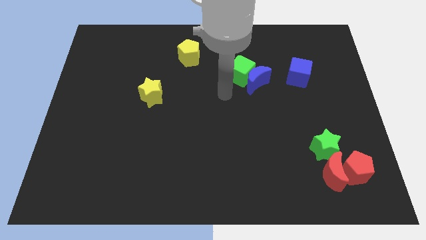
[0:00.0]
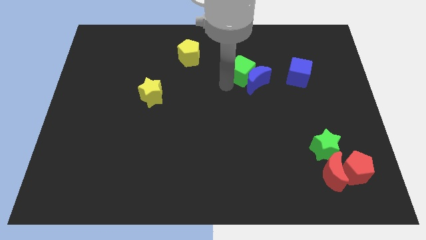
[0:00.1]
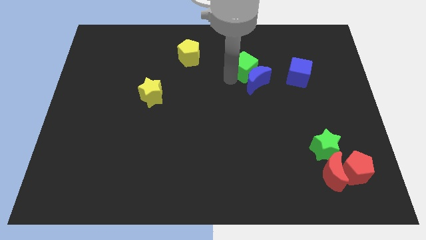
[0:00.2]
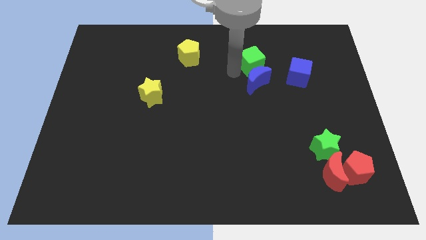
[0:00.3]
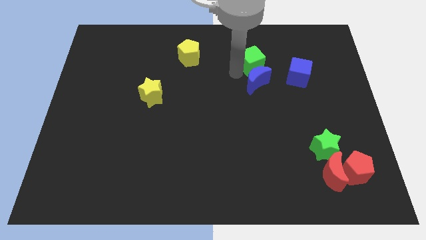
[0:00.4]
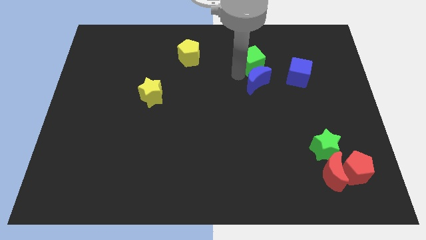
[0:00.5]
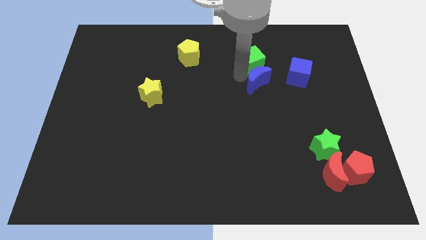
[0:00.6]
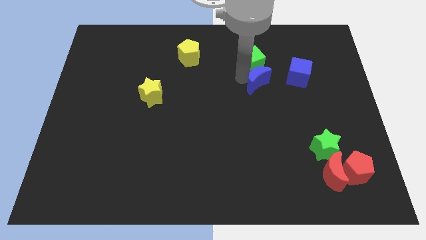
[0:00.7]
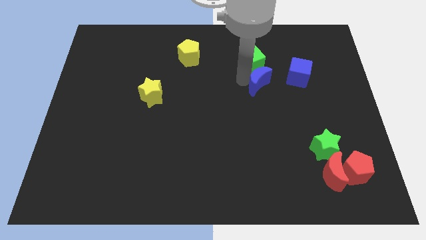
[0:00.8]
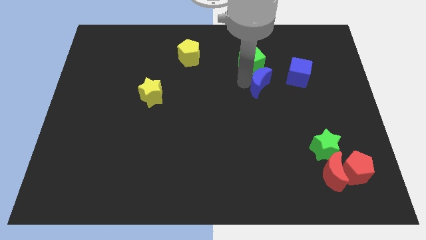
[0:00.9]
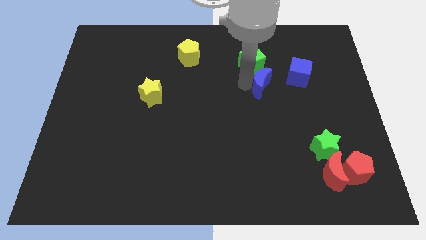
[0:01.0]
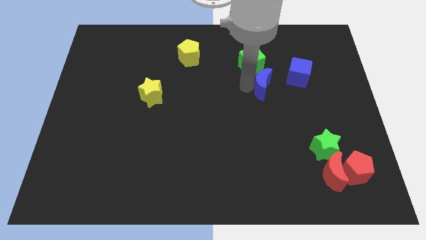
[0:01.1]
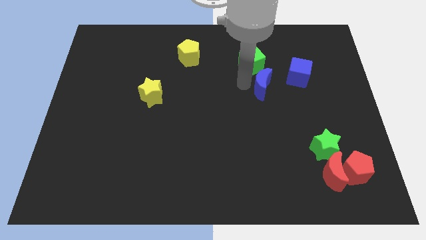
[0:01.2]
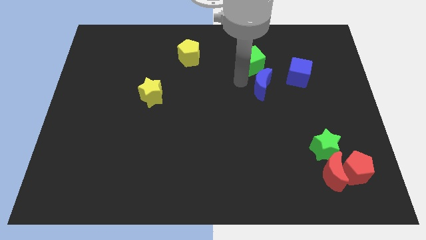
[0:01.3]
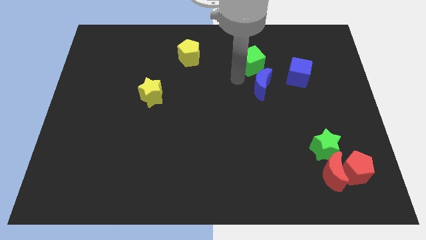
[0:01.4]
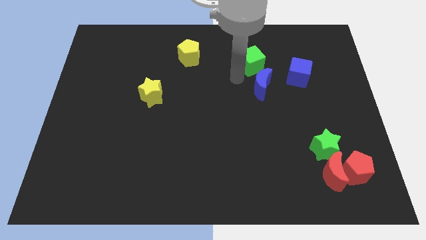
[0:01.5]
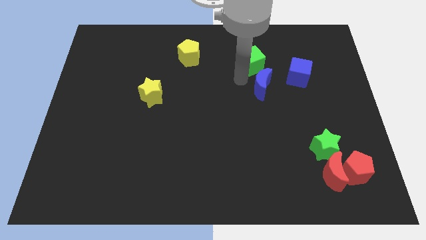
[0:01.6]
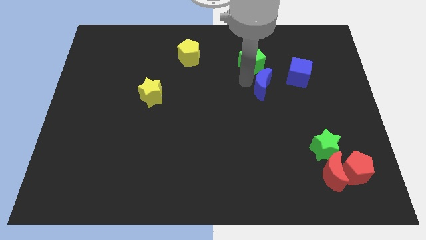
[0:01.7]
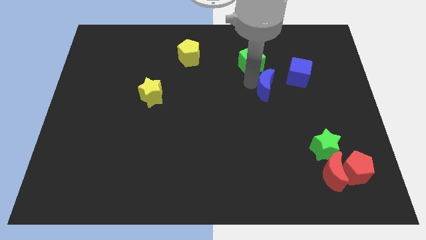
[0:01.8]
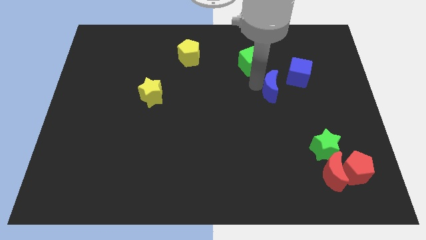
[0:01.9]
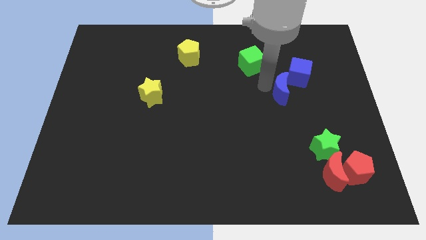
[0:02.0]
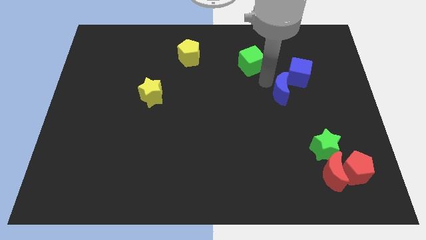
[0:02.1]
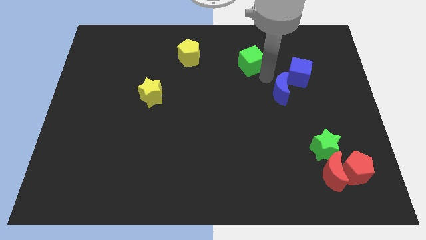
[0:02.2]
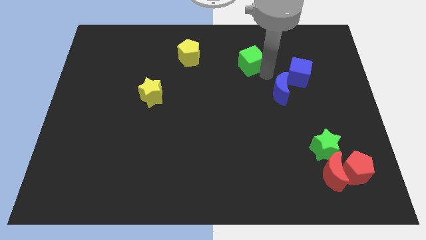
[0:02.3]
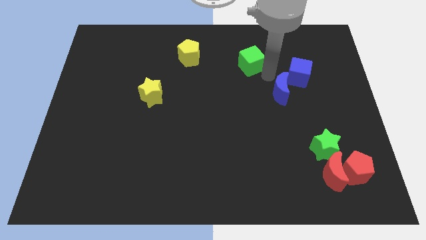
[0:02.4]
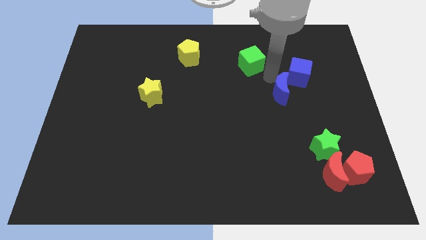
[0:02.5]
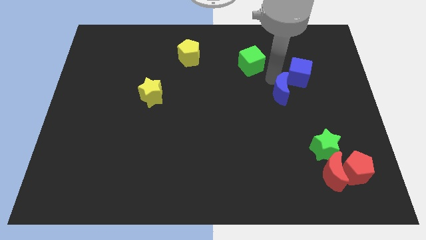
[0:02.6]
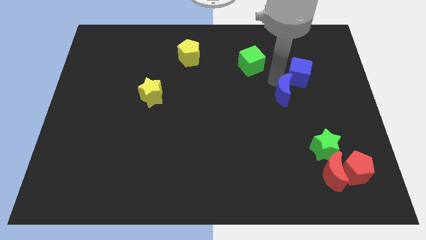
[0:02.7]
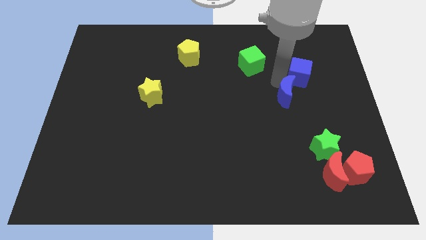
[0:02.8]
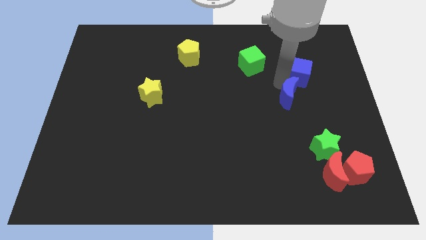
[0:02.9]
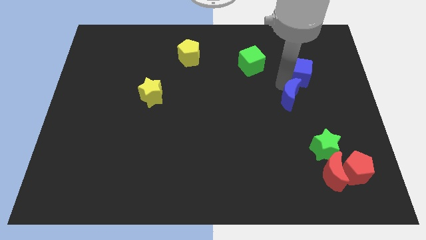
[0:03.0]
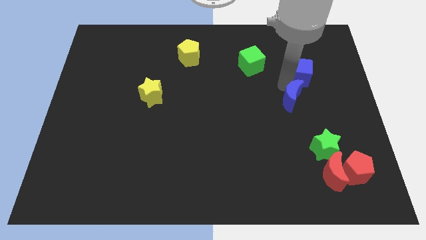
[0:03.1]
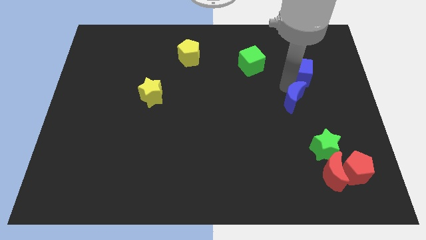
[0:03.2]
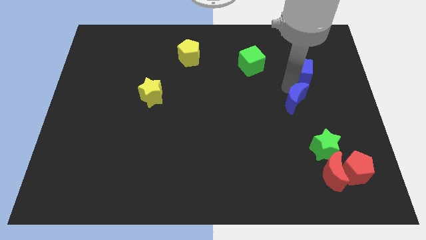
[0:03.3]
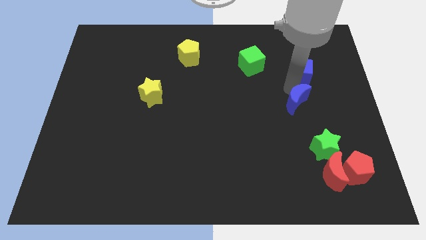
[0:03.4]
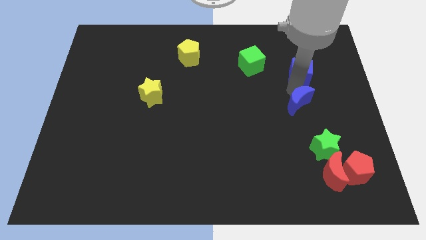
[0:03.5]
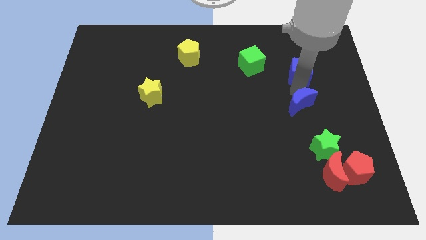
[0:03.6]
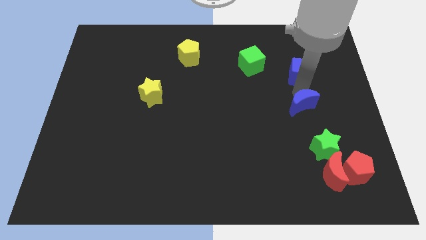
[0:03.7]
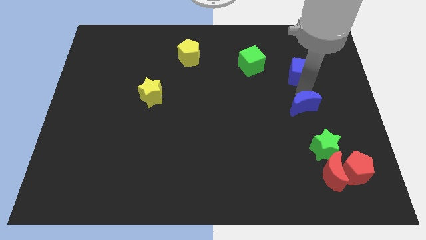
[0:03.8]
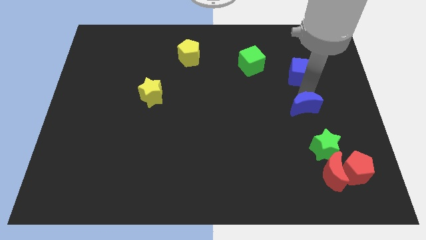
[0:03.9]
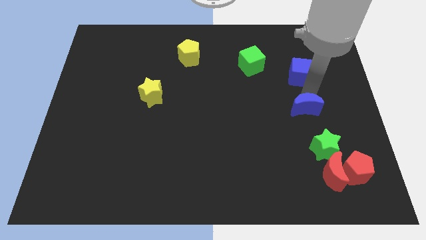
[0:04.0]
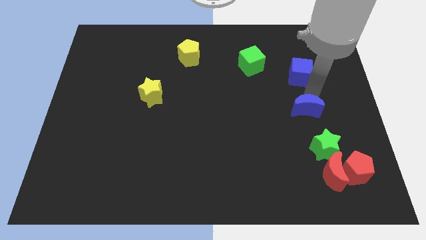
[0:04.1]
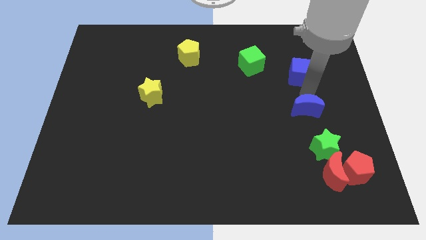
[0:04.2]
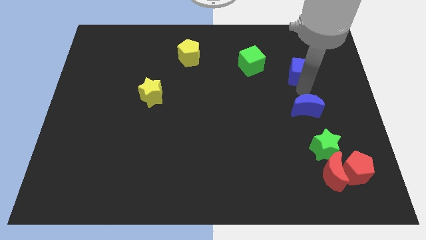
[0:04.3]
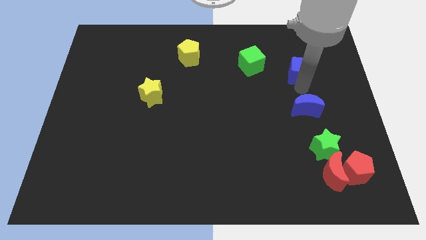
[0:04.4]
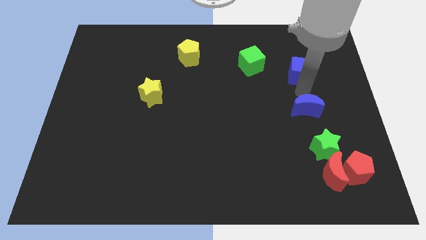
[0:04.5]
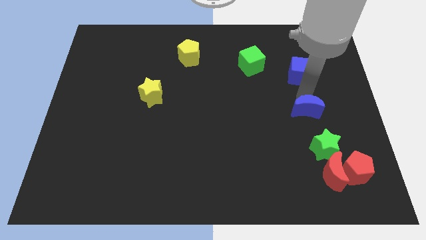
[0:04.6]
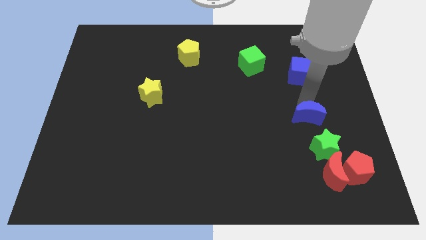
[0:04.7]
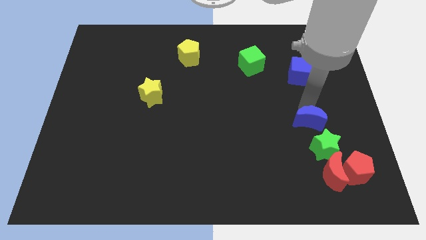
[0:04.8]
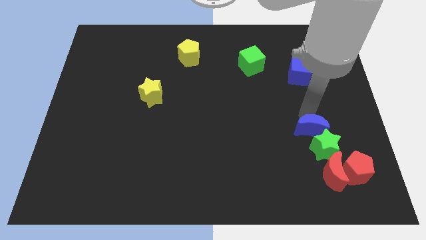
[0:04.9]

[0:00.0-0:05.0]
slide the blue moon to the green star

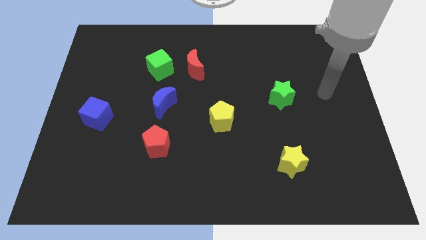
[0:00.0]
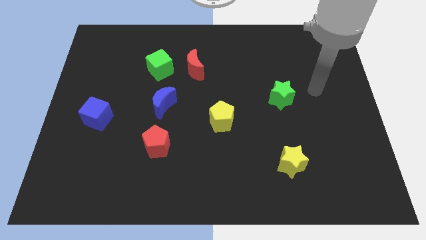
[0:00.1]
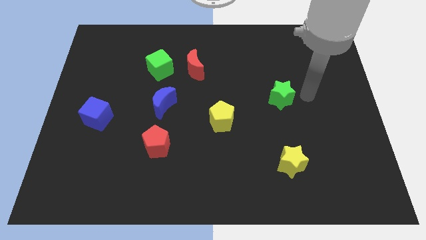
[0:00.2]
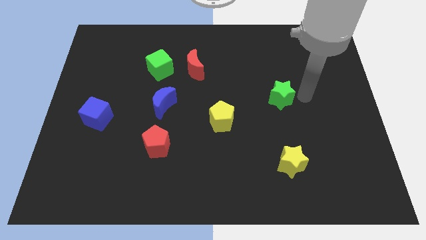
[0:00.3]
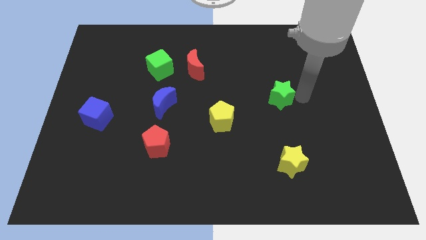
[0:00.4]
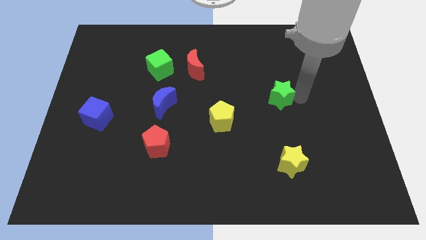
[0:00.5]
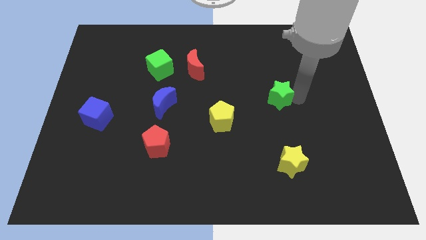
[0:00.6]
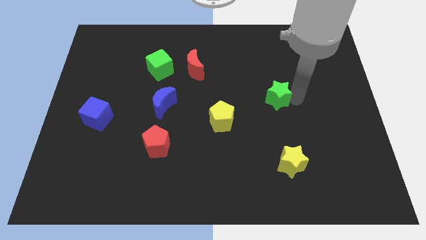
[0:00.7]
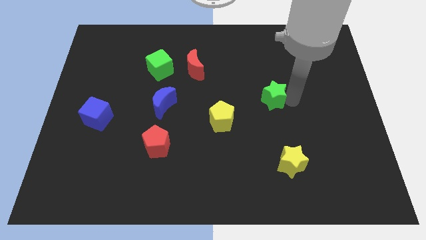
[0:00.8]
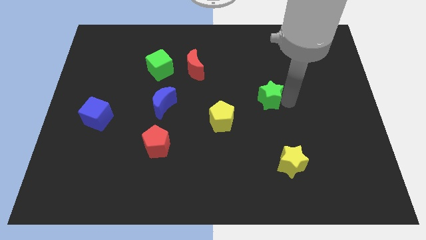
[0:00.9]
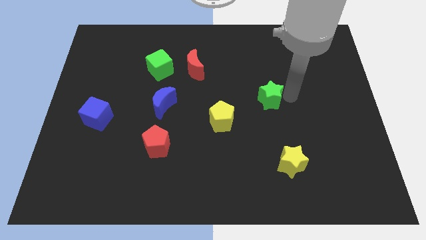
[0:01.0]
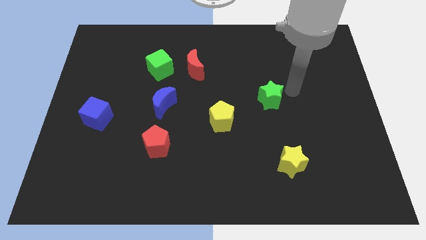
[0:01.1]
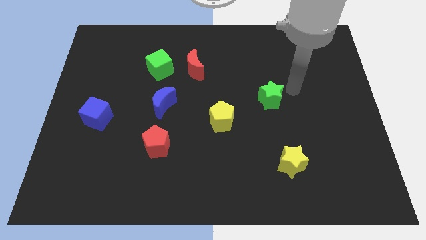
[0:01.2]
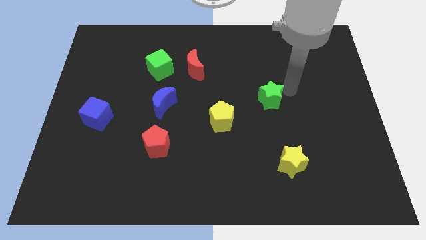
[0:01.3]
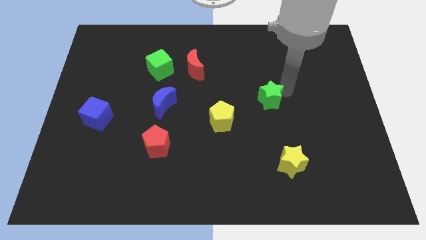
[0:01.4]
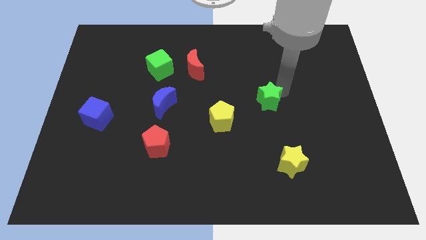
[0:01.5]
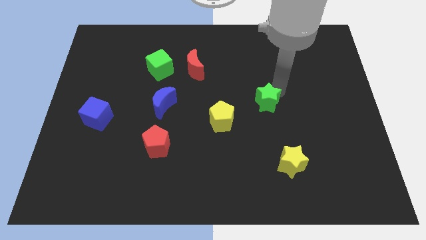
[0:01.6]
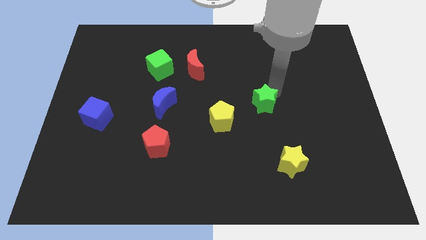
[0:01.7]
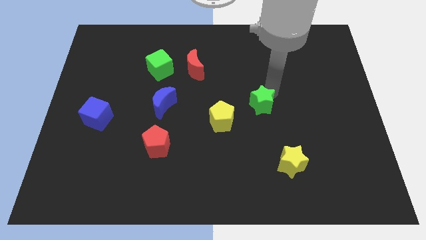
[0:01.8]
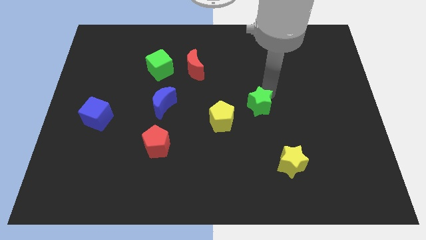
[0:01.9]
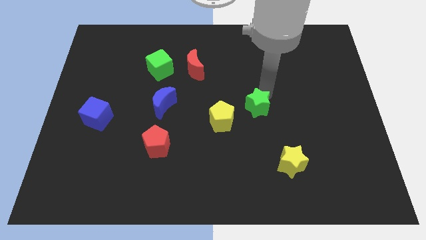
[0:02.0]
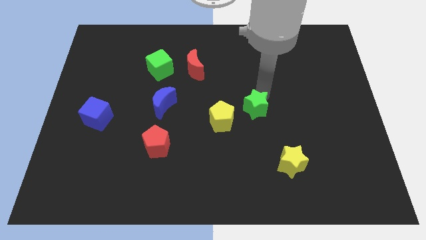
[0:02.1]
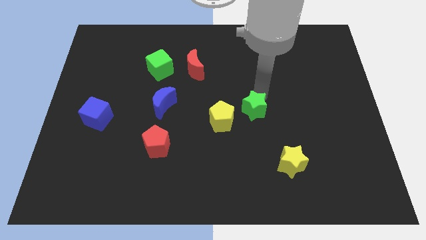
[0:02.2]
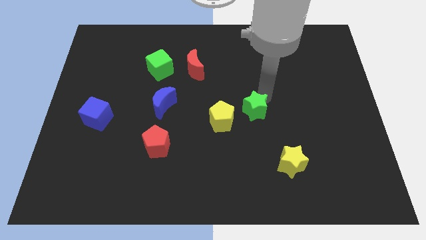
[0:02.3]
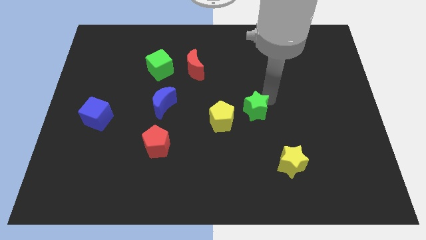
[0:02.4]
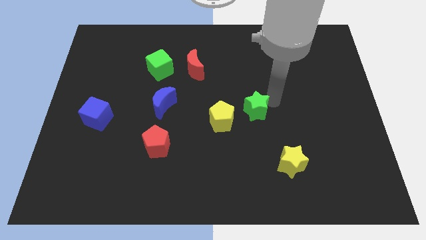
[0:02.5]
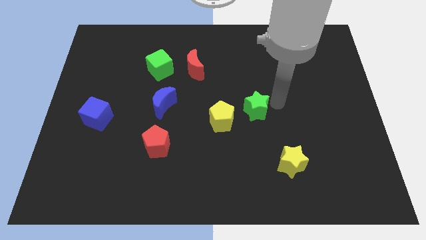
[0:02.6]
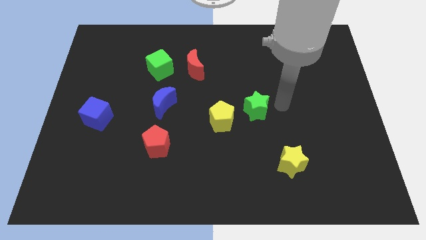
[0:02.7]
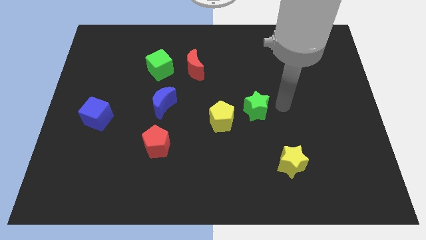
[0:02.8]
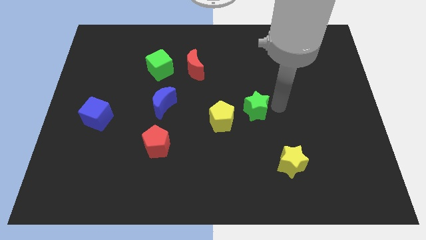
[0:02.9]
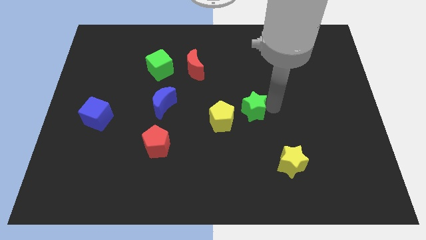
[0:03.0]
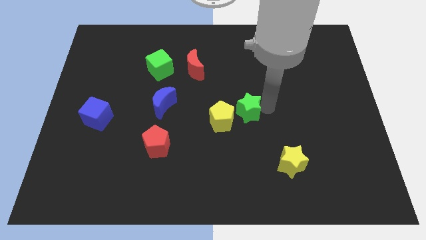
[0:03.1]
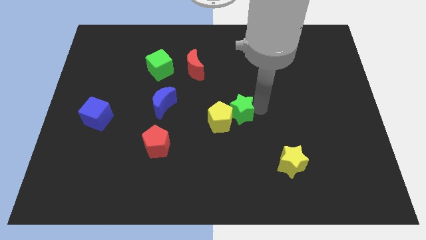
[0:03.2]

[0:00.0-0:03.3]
move the green star towards the yellow pentagon

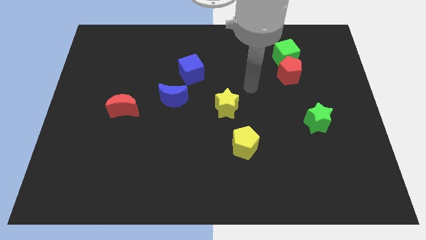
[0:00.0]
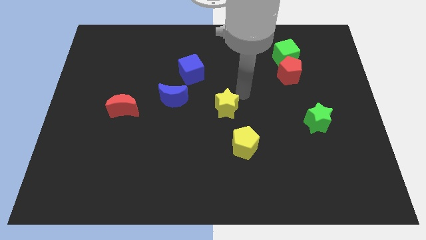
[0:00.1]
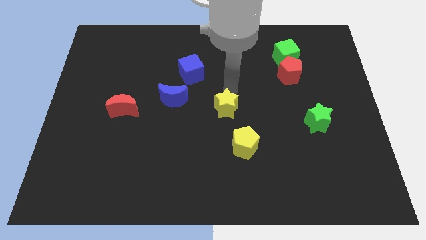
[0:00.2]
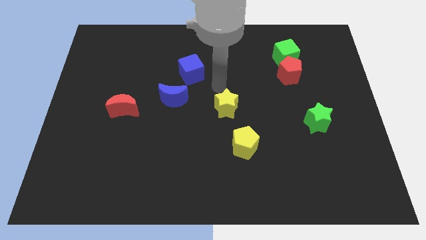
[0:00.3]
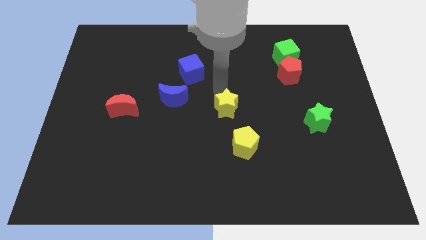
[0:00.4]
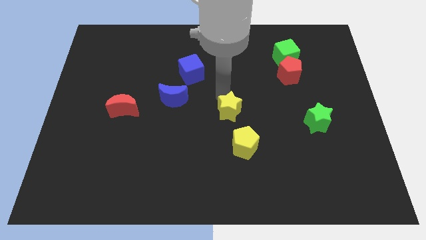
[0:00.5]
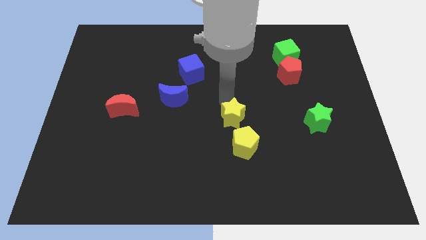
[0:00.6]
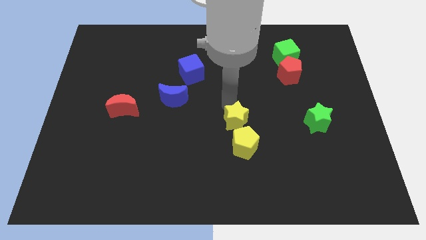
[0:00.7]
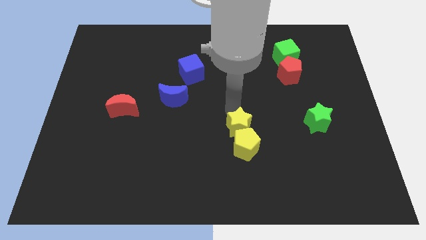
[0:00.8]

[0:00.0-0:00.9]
put the yellow star towards the yellow pentagon
